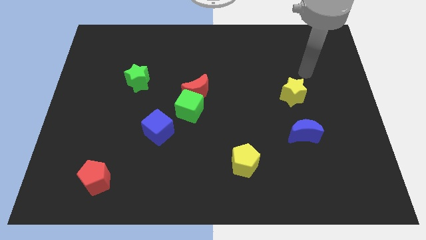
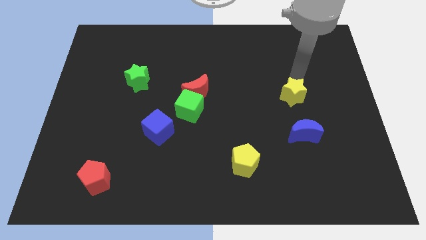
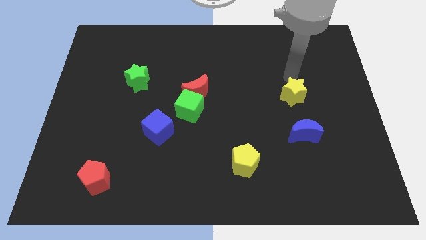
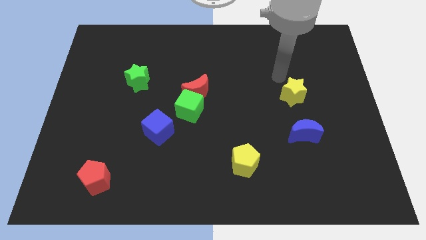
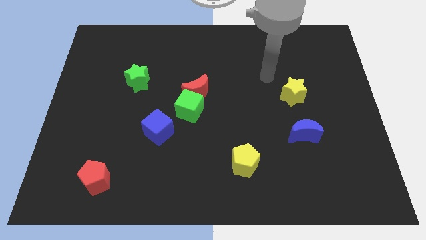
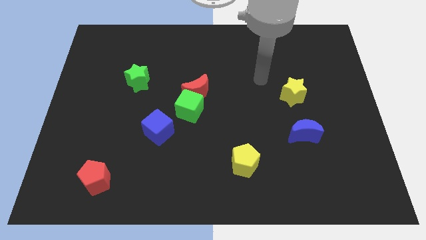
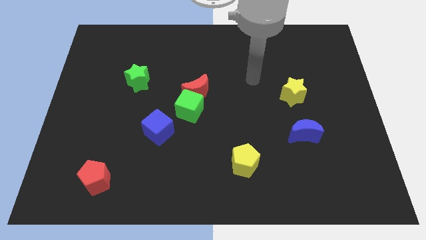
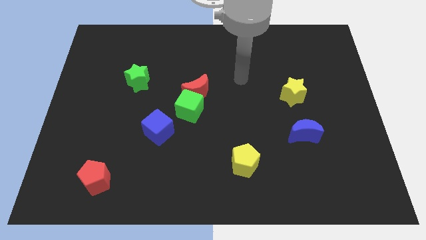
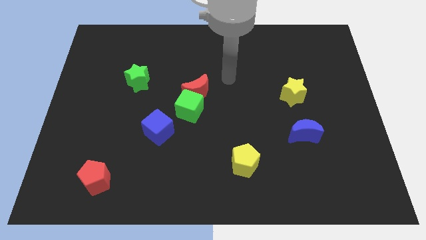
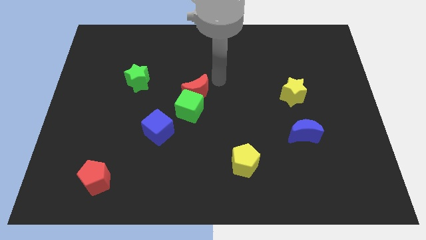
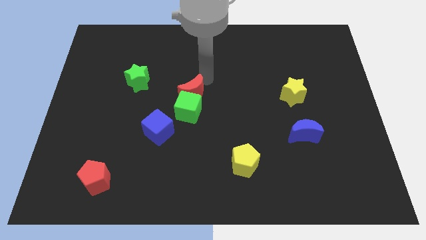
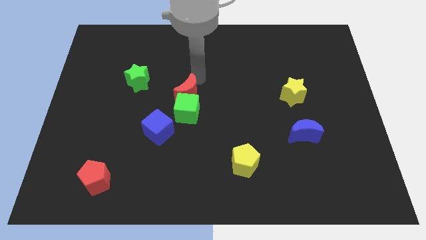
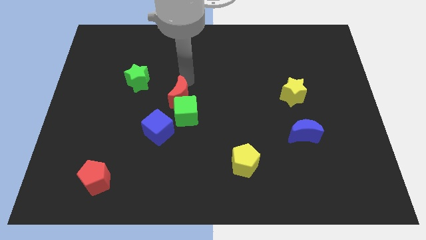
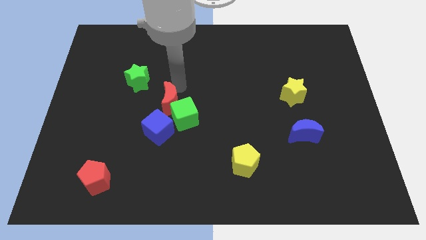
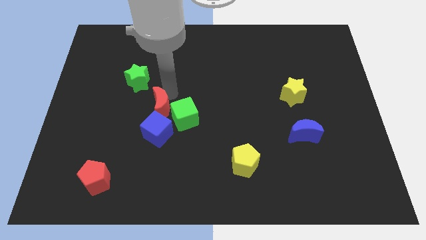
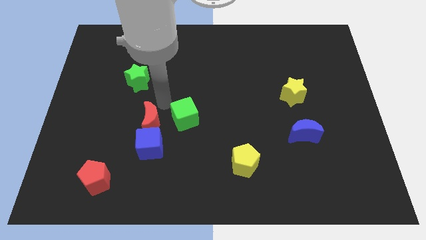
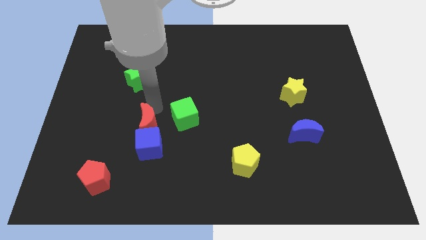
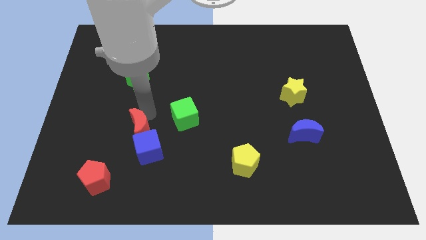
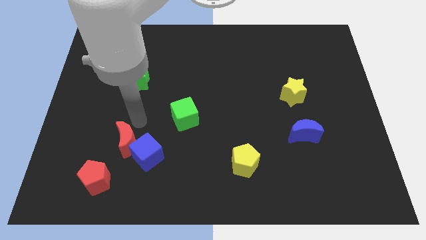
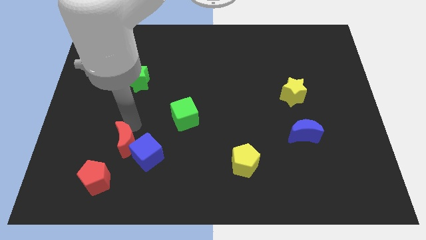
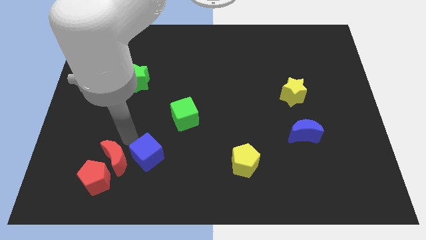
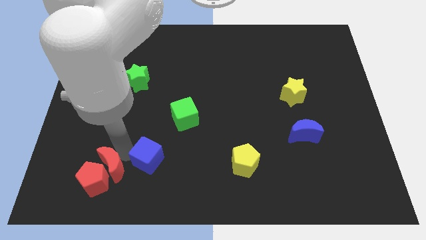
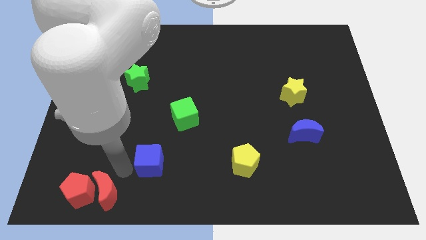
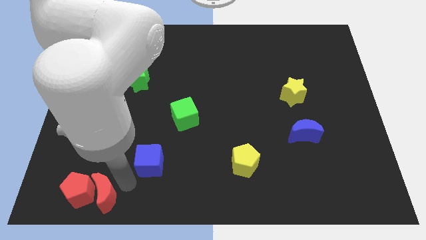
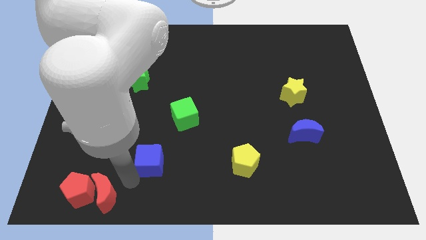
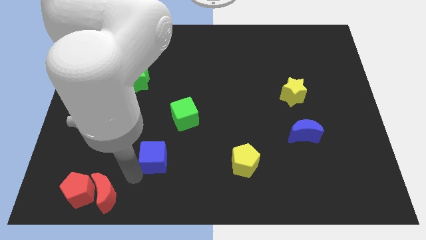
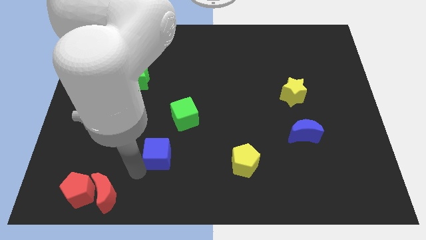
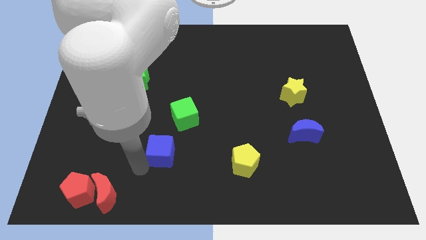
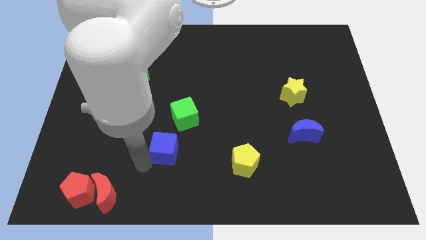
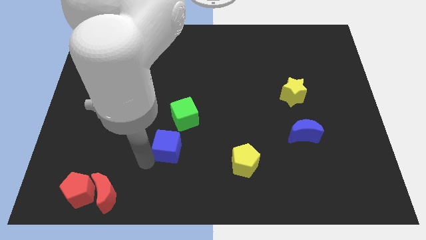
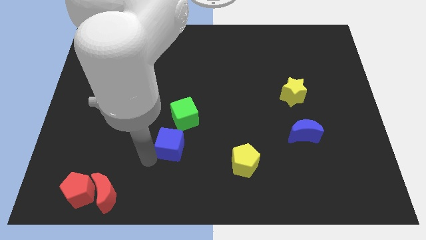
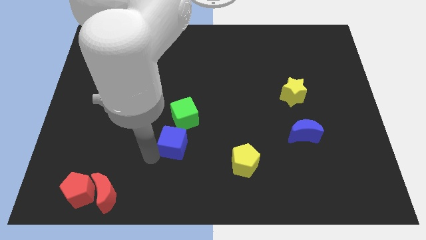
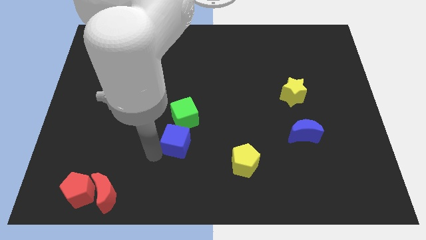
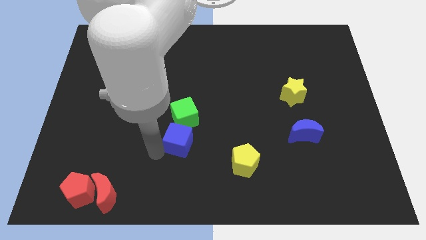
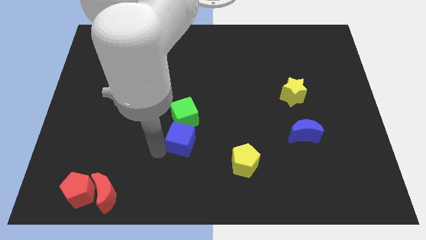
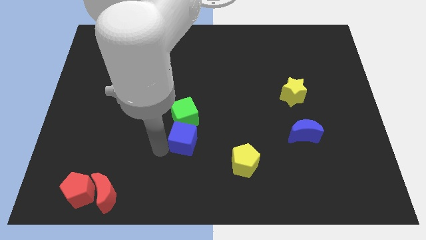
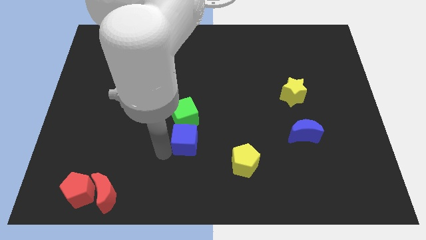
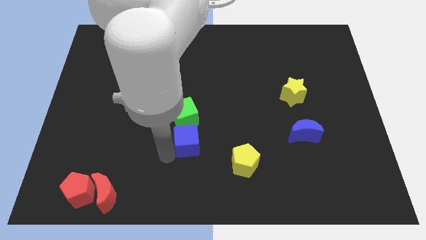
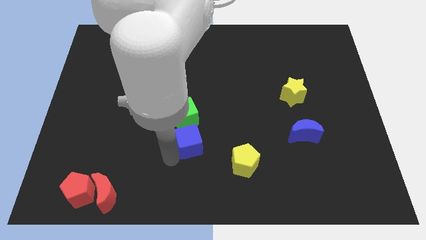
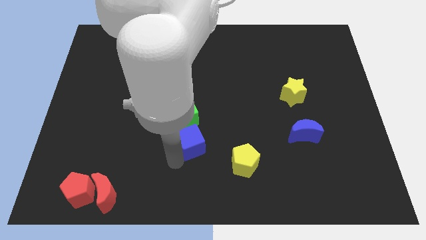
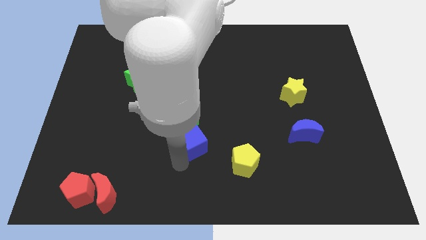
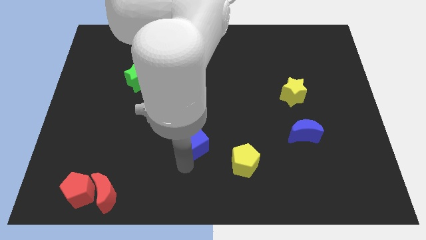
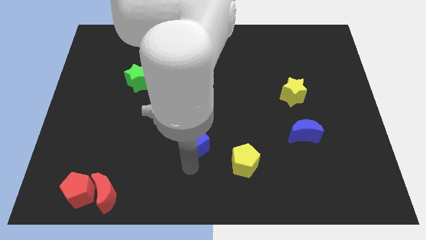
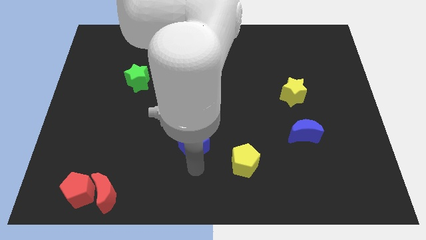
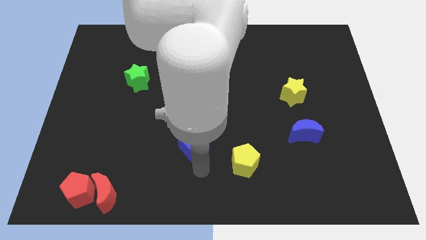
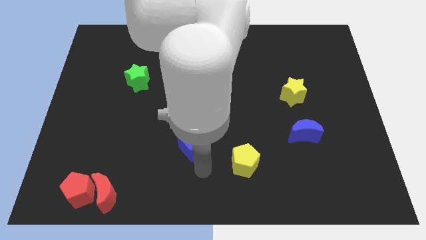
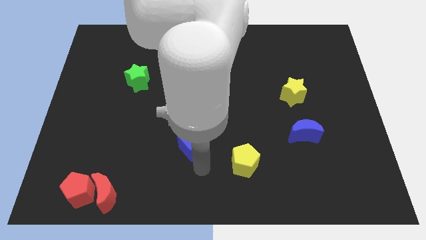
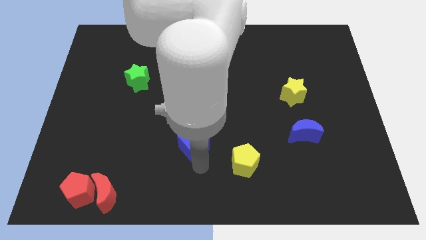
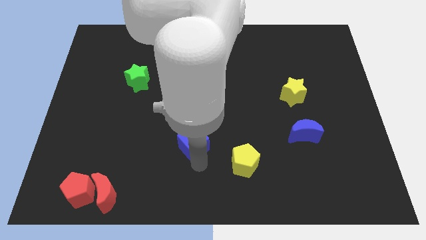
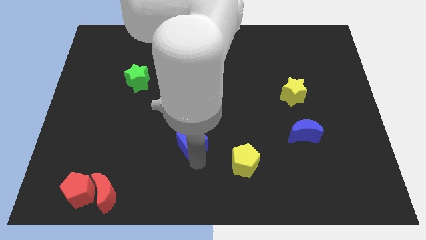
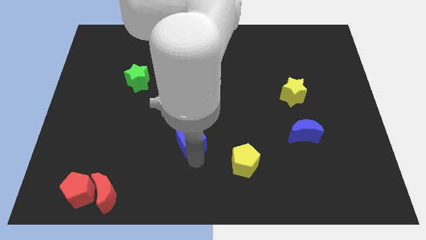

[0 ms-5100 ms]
push the blue cube to the middle

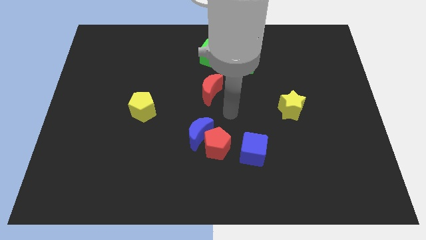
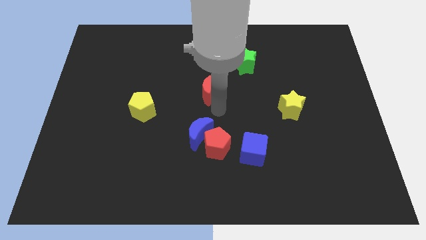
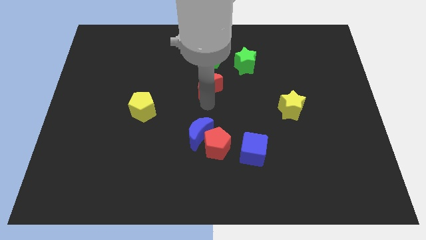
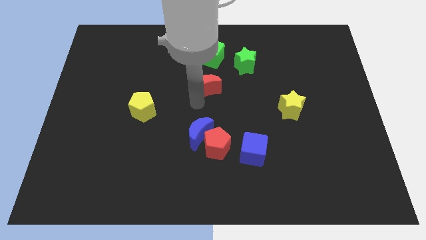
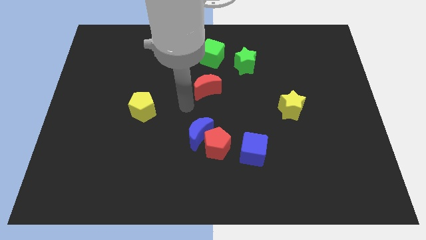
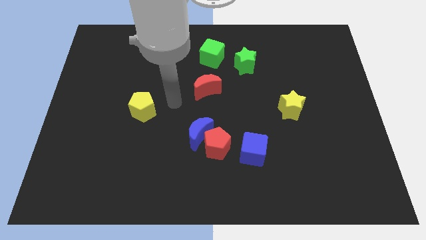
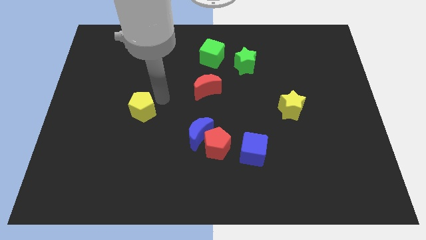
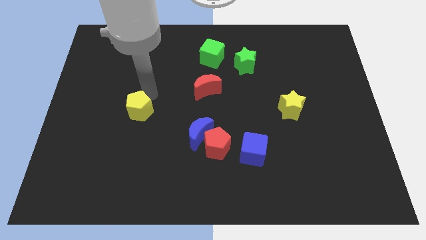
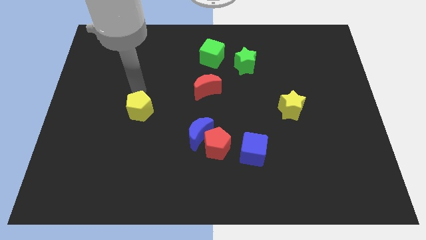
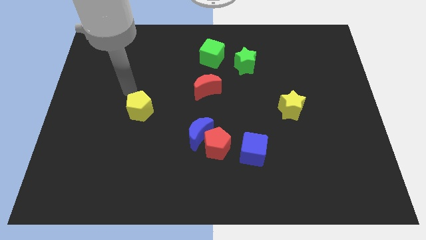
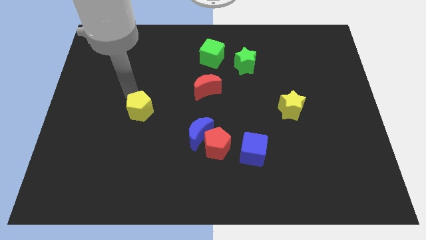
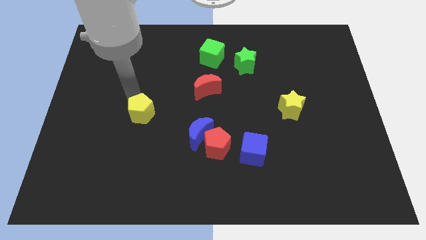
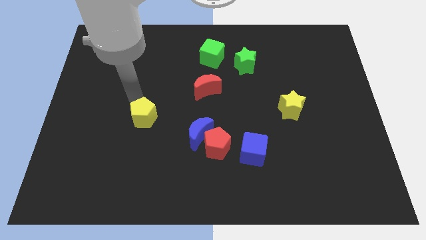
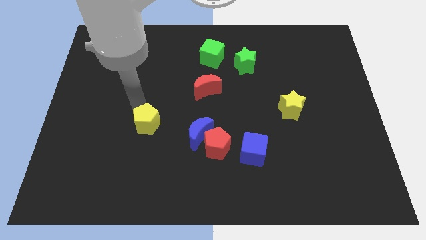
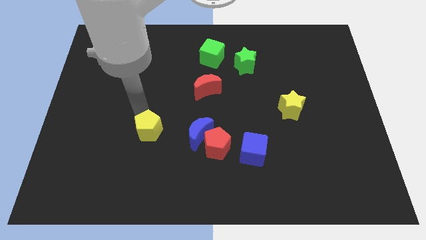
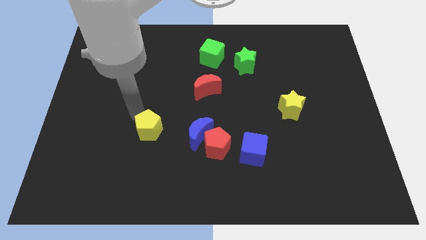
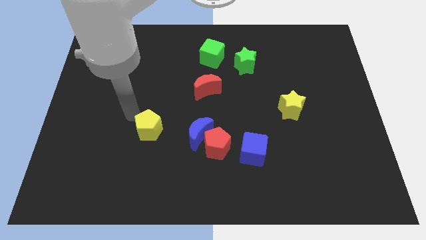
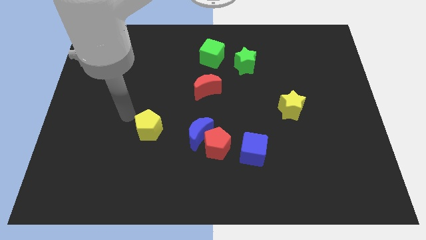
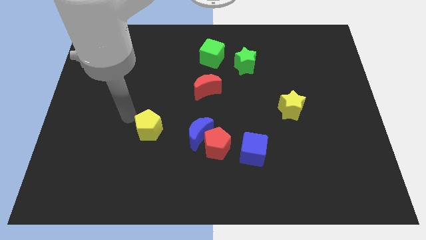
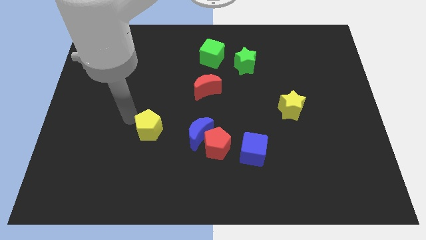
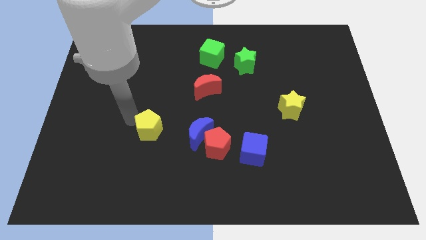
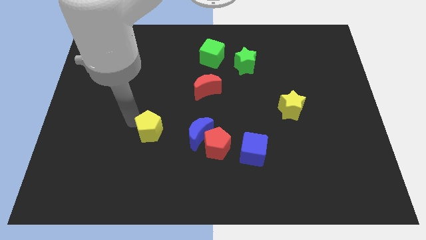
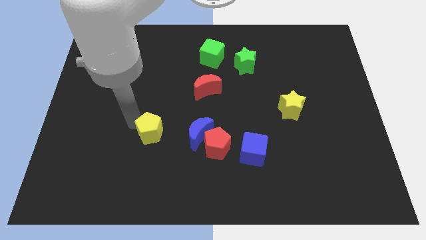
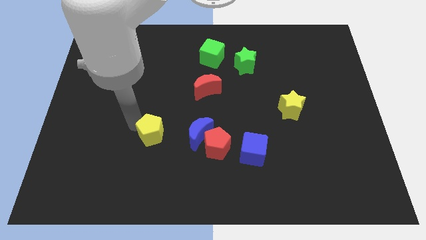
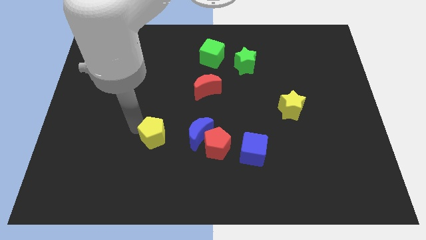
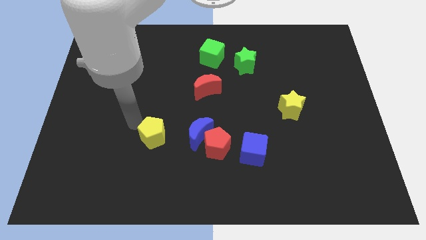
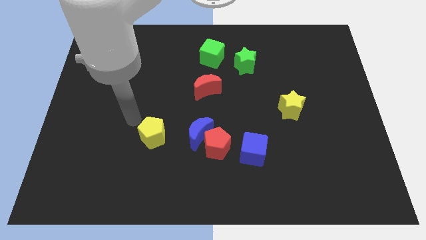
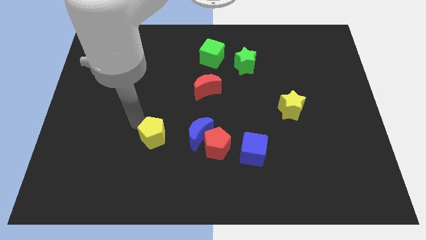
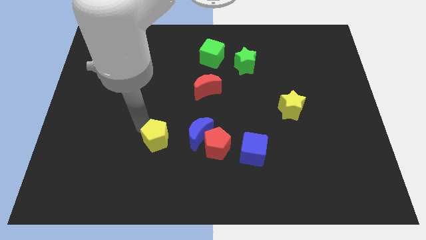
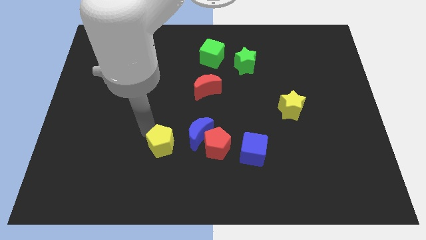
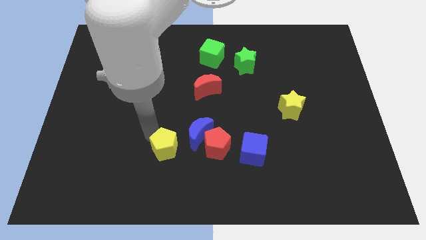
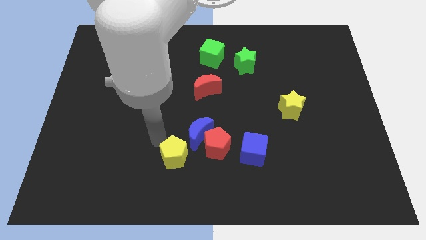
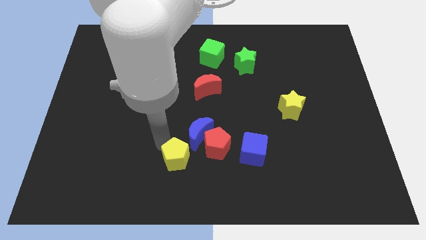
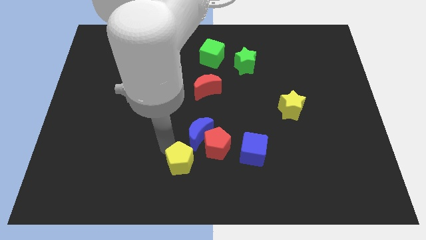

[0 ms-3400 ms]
move the yellow pentagon to the bottom
